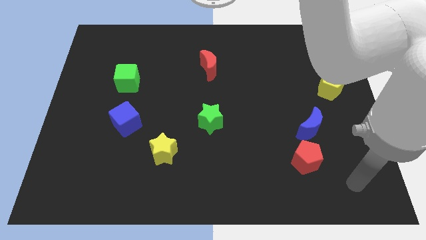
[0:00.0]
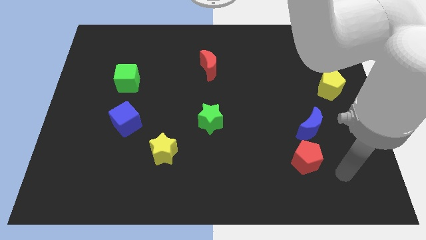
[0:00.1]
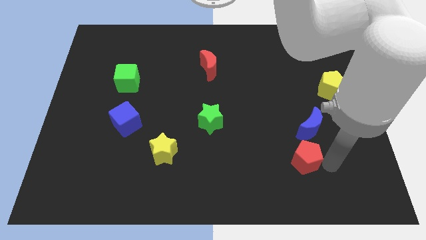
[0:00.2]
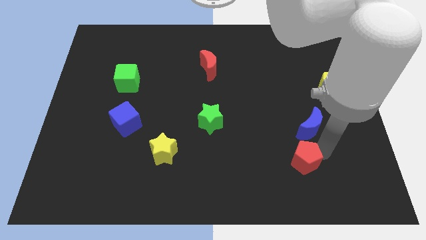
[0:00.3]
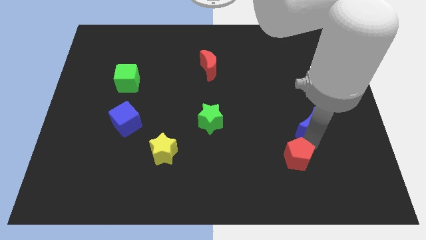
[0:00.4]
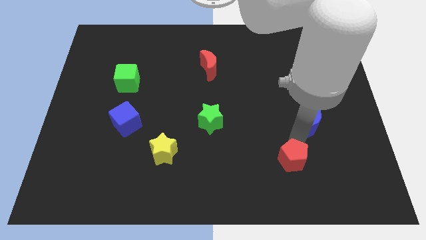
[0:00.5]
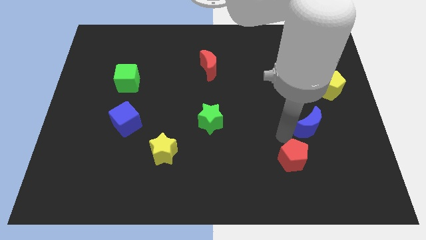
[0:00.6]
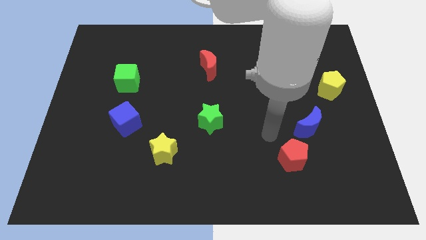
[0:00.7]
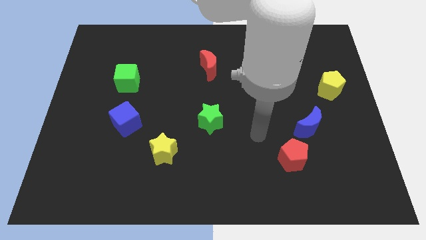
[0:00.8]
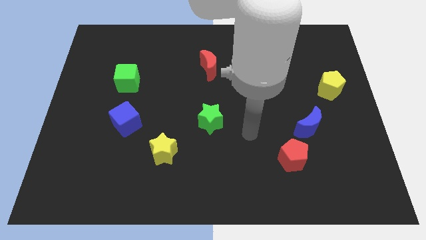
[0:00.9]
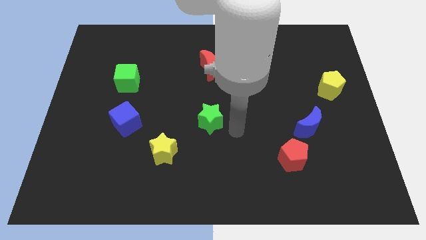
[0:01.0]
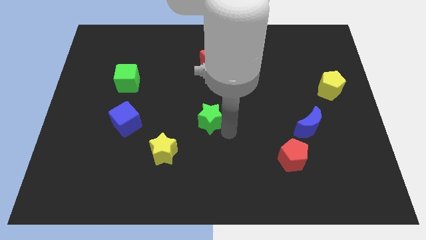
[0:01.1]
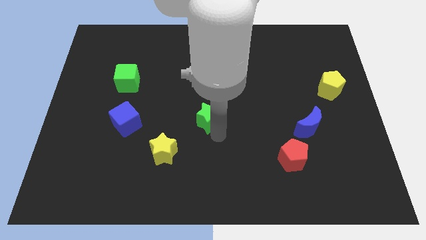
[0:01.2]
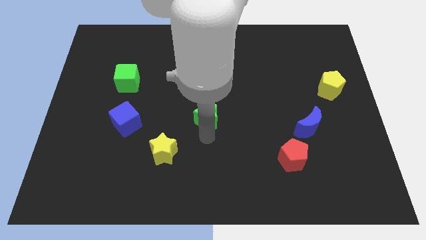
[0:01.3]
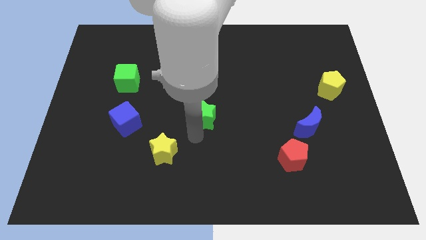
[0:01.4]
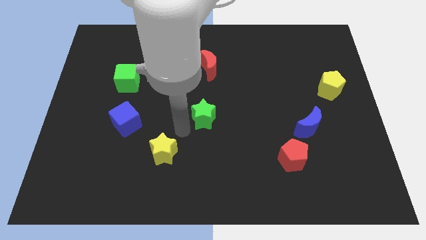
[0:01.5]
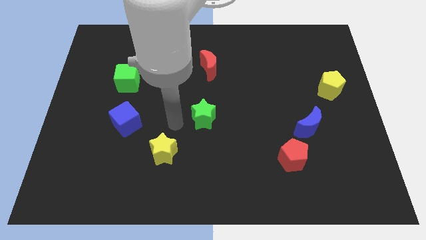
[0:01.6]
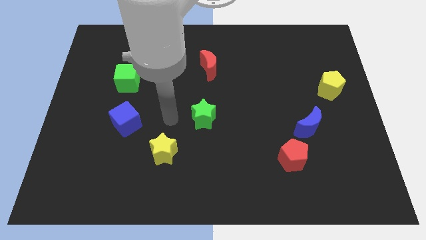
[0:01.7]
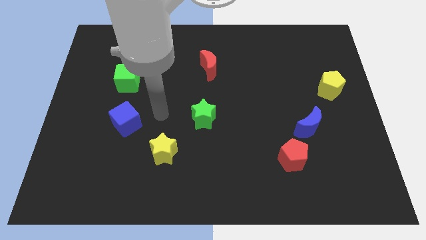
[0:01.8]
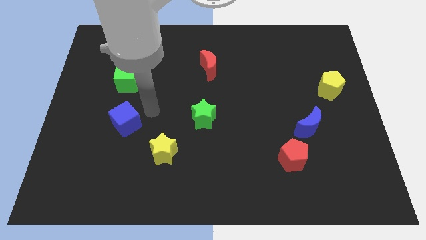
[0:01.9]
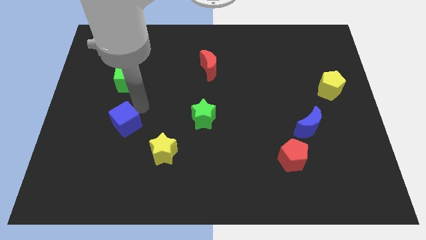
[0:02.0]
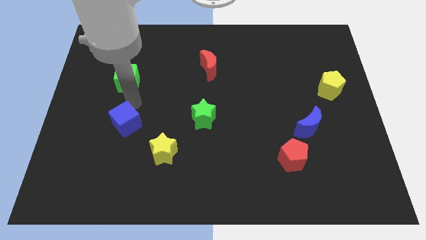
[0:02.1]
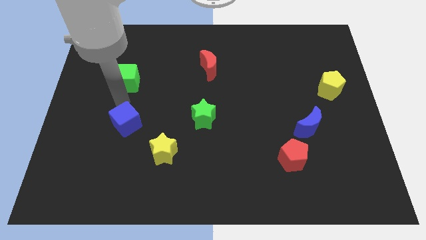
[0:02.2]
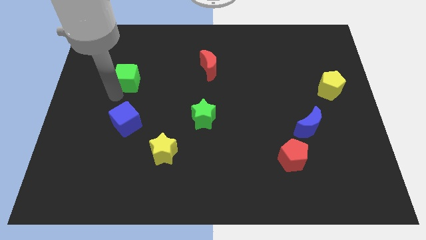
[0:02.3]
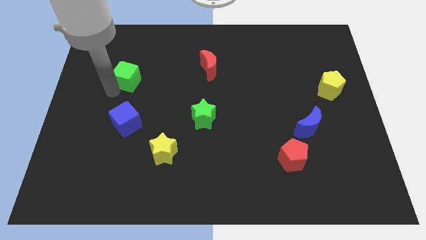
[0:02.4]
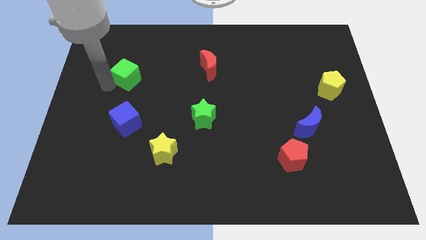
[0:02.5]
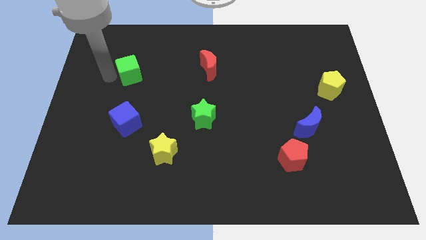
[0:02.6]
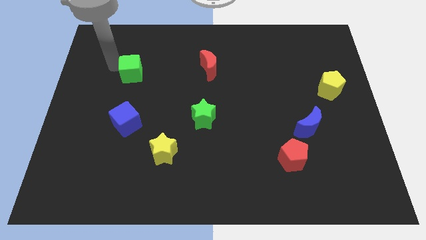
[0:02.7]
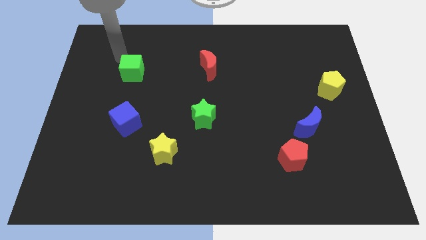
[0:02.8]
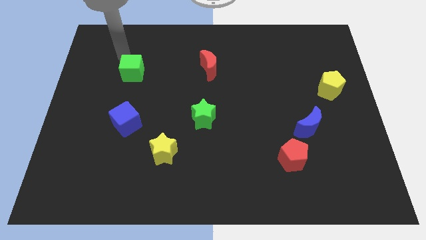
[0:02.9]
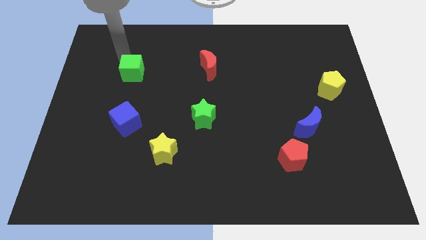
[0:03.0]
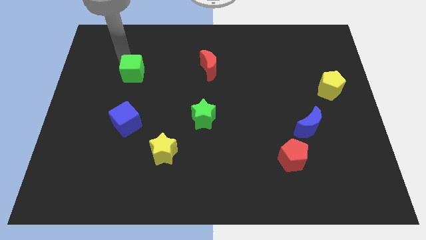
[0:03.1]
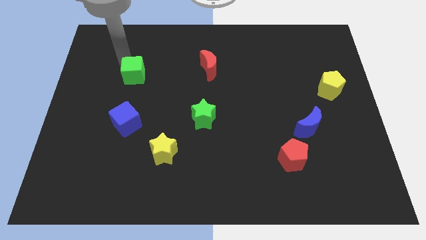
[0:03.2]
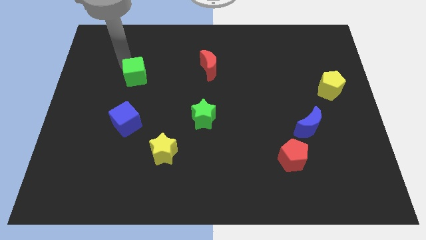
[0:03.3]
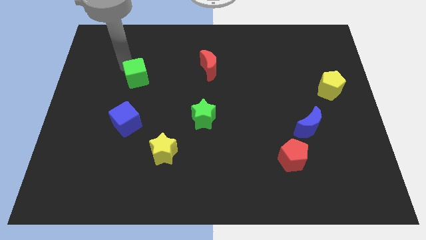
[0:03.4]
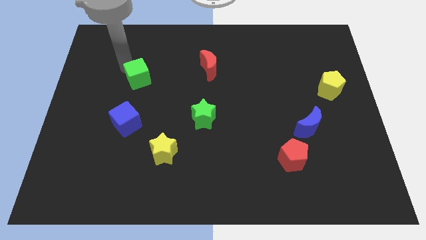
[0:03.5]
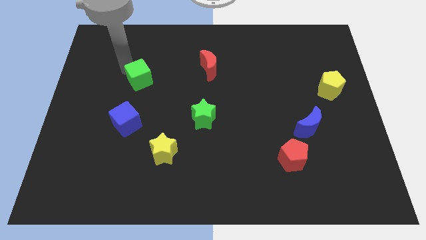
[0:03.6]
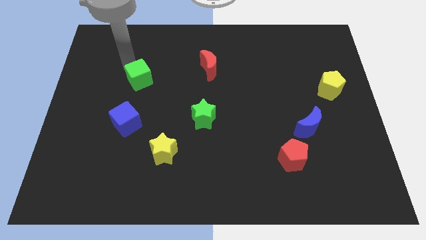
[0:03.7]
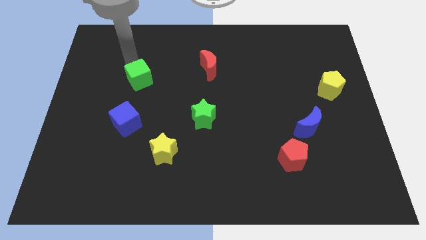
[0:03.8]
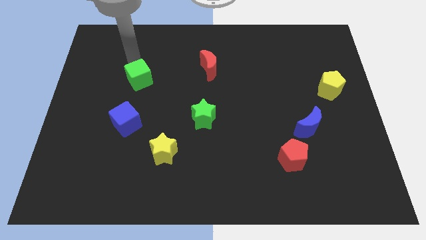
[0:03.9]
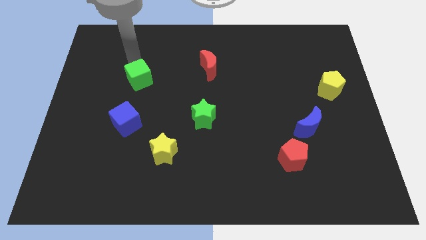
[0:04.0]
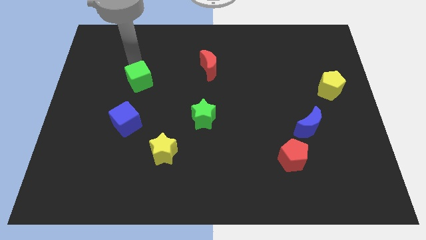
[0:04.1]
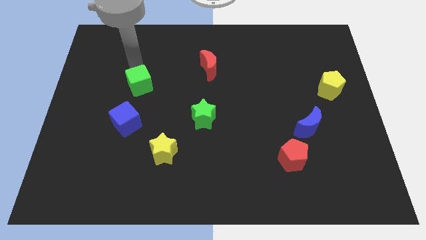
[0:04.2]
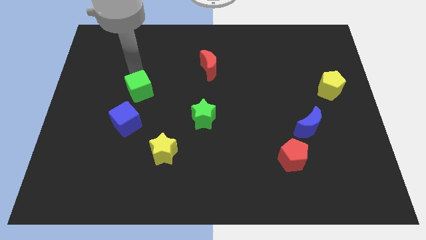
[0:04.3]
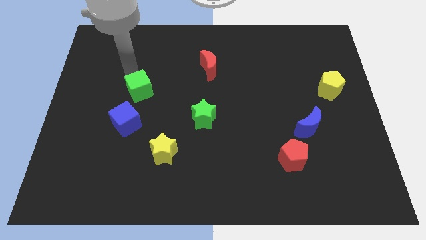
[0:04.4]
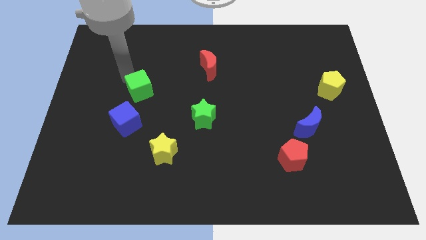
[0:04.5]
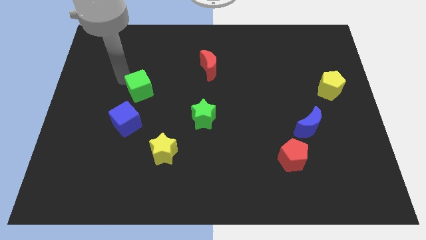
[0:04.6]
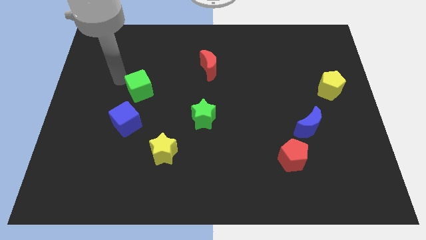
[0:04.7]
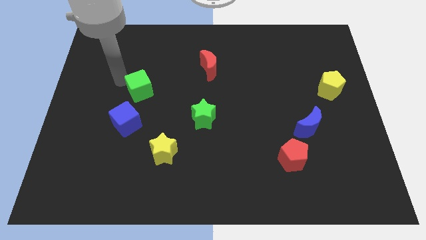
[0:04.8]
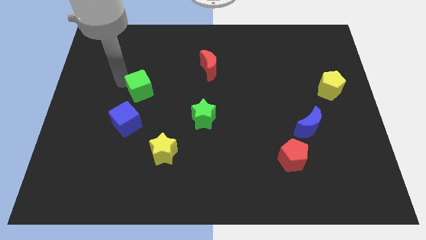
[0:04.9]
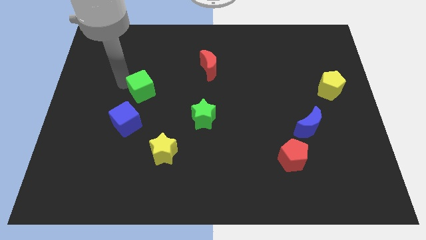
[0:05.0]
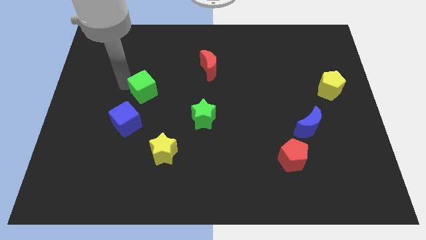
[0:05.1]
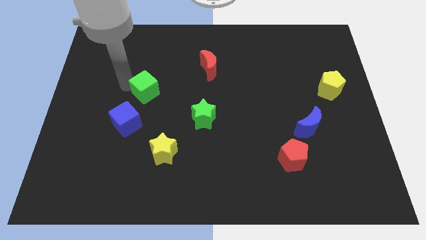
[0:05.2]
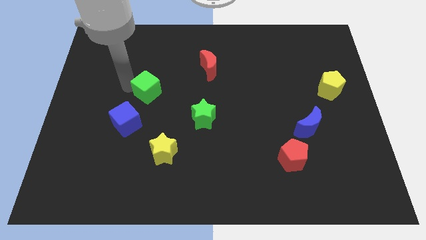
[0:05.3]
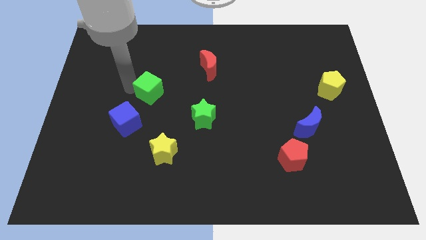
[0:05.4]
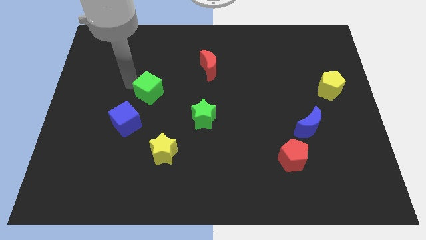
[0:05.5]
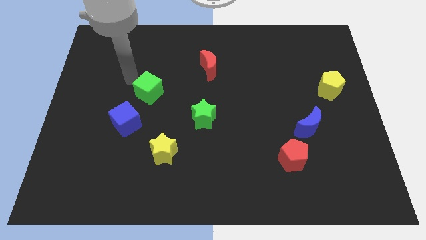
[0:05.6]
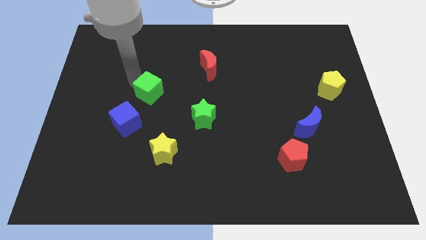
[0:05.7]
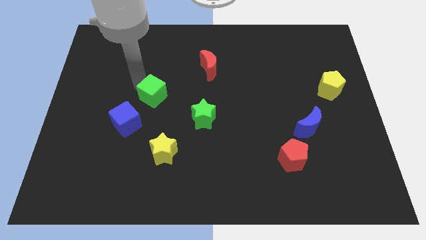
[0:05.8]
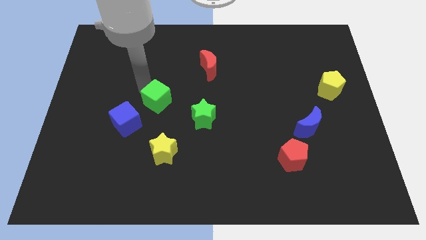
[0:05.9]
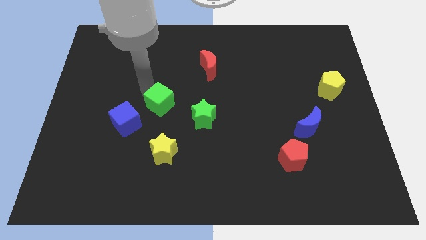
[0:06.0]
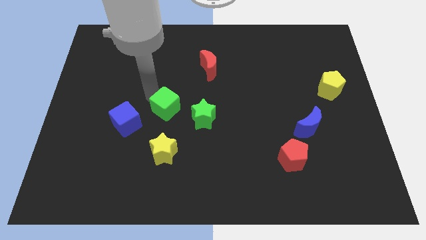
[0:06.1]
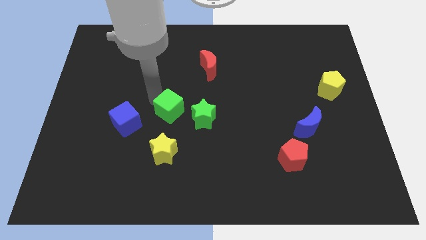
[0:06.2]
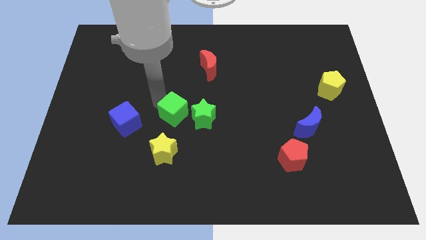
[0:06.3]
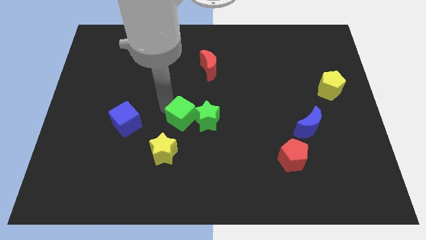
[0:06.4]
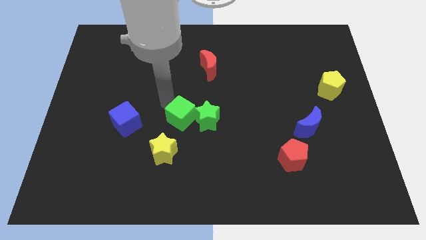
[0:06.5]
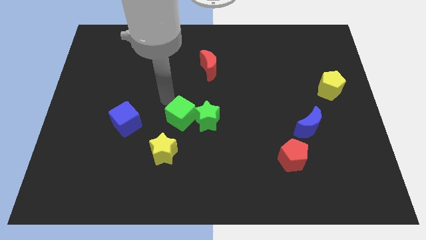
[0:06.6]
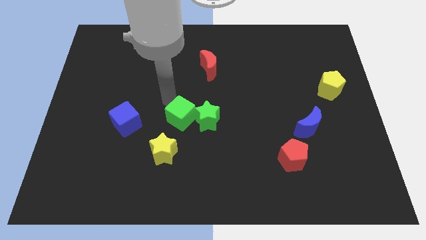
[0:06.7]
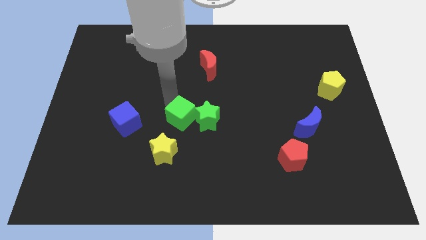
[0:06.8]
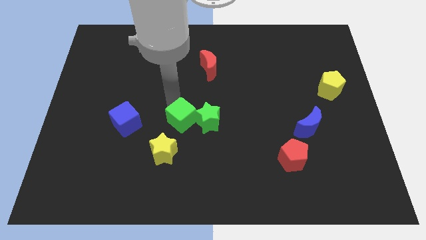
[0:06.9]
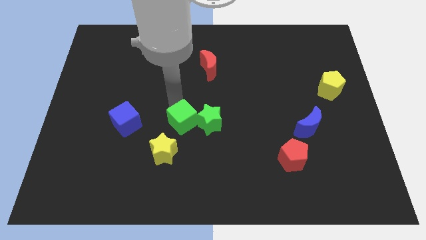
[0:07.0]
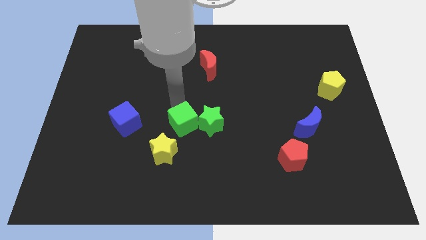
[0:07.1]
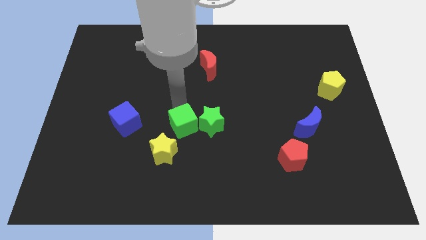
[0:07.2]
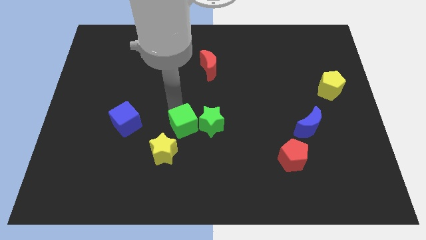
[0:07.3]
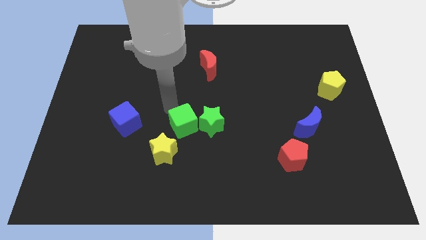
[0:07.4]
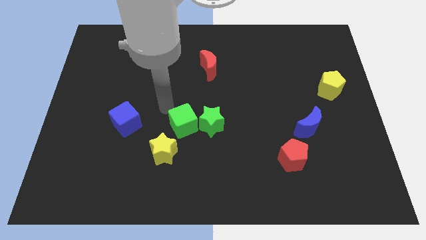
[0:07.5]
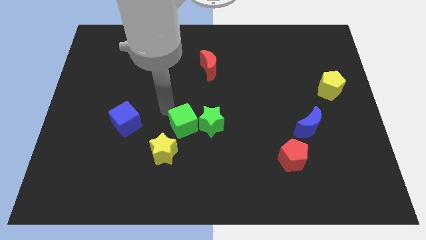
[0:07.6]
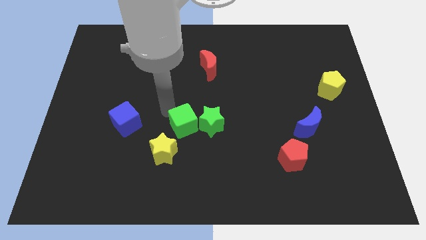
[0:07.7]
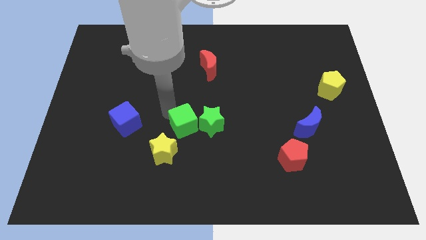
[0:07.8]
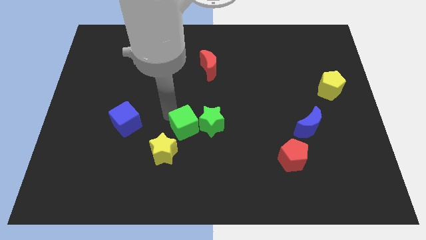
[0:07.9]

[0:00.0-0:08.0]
push the green cube diagonally down and to the right

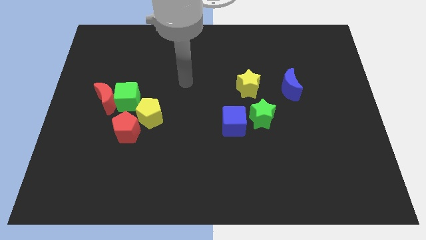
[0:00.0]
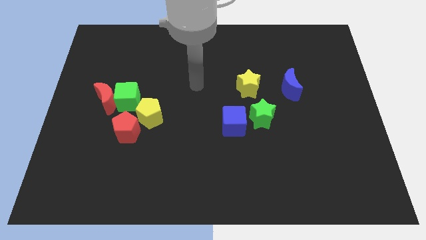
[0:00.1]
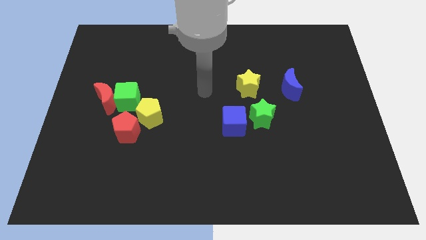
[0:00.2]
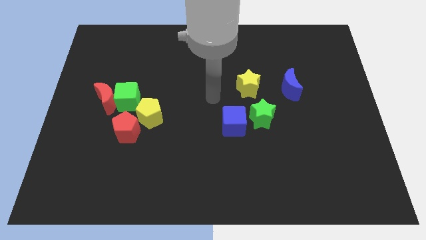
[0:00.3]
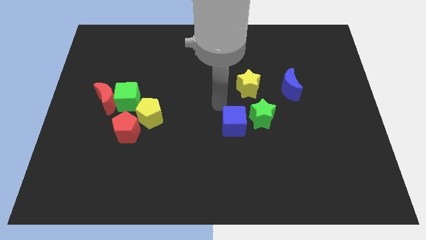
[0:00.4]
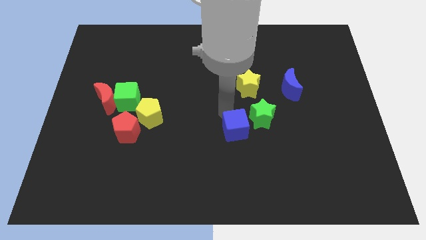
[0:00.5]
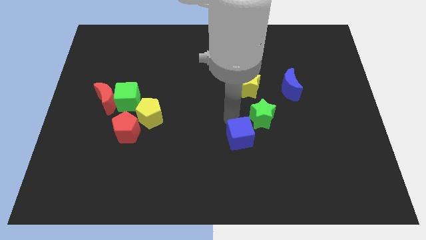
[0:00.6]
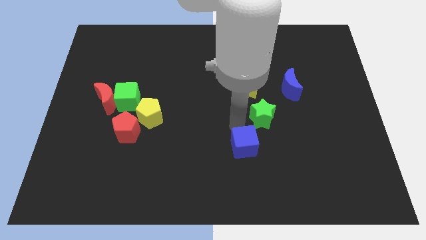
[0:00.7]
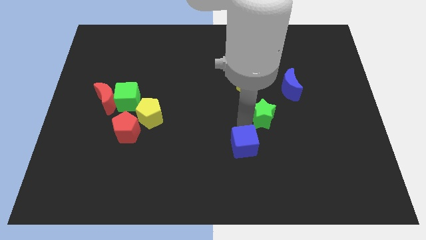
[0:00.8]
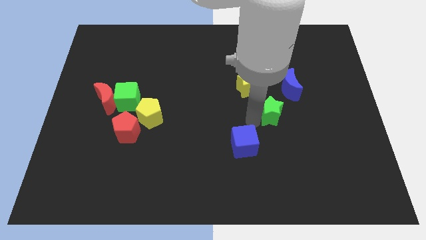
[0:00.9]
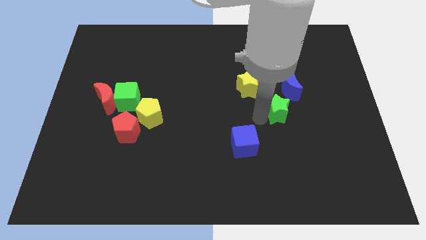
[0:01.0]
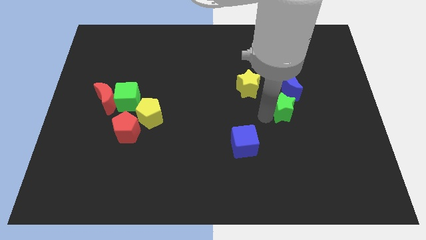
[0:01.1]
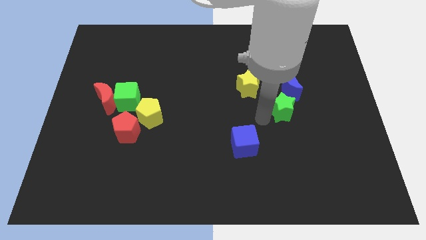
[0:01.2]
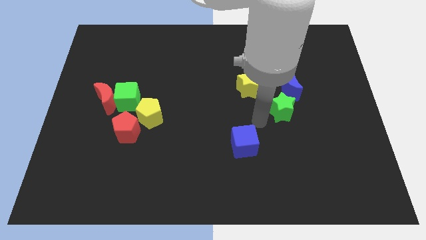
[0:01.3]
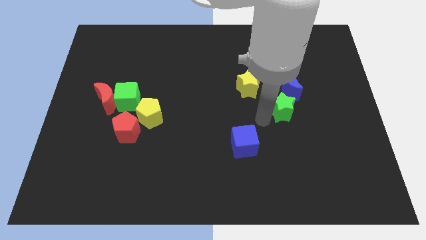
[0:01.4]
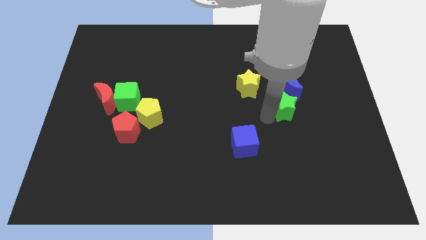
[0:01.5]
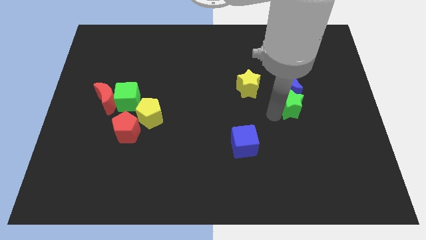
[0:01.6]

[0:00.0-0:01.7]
move the green star up and then to the right a little bit
